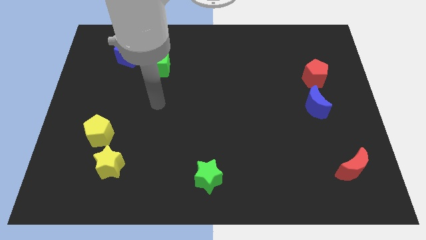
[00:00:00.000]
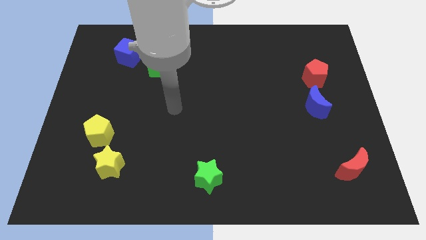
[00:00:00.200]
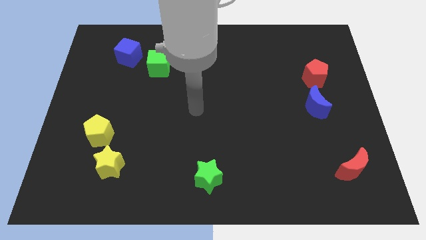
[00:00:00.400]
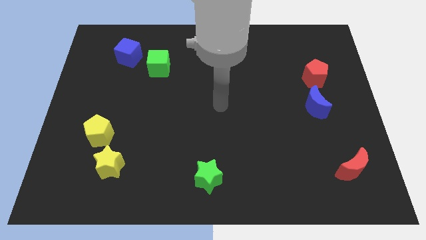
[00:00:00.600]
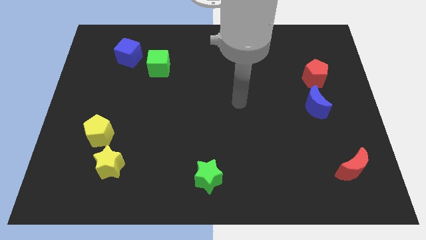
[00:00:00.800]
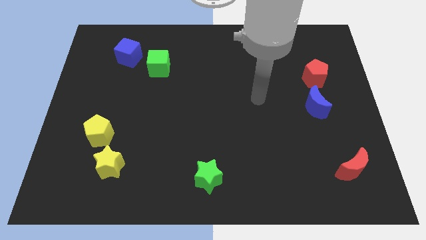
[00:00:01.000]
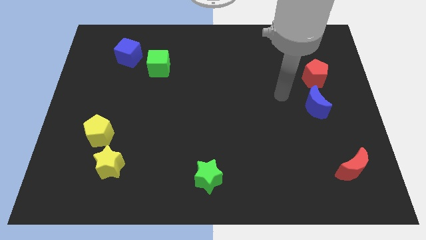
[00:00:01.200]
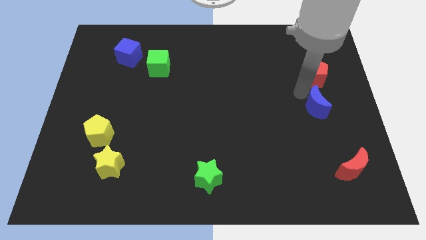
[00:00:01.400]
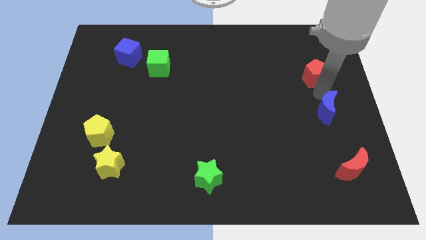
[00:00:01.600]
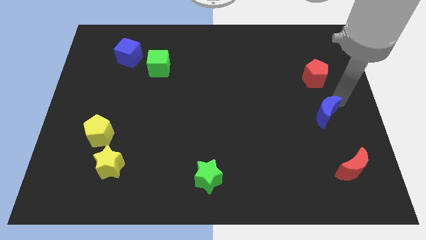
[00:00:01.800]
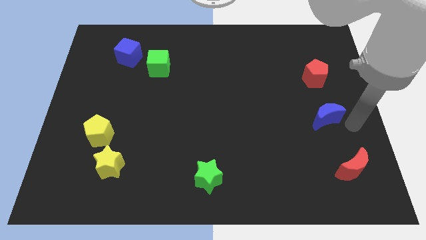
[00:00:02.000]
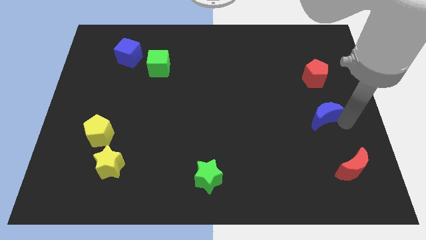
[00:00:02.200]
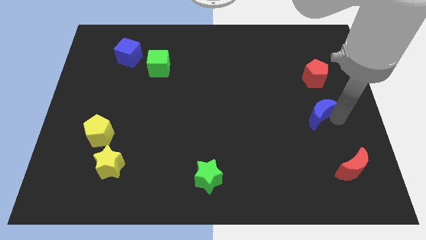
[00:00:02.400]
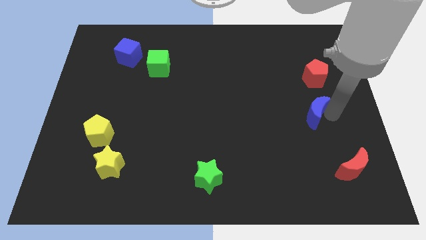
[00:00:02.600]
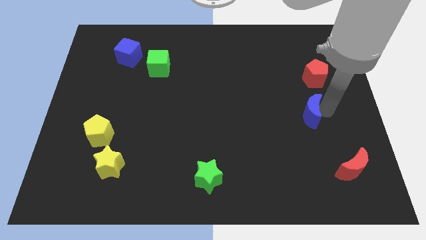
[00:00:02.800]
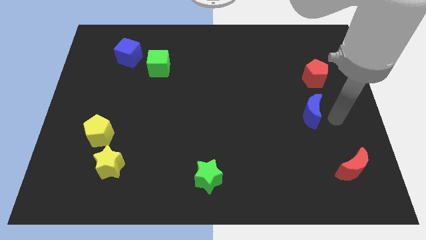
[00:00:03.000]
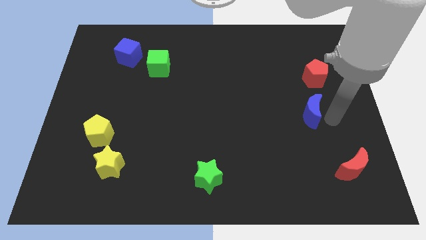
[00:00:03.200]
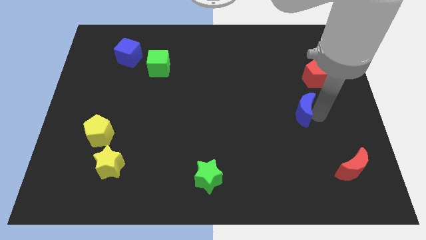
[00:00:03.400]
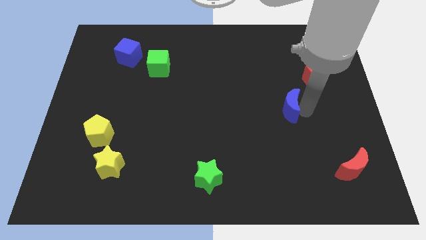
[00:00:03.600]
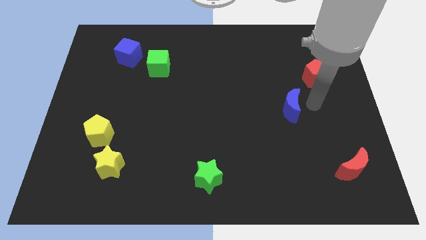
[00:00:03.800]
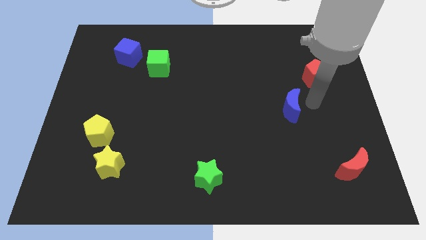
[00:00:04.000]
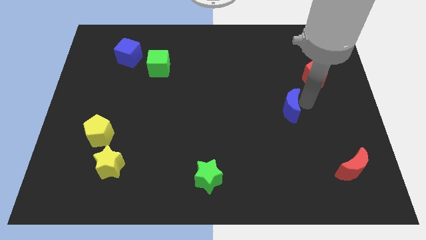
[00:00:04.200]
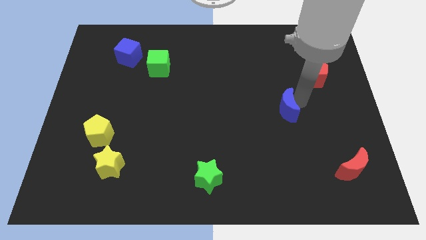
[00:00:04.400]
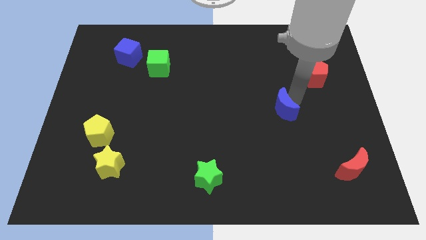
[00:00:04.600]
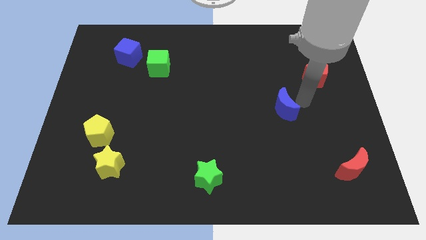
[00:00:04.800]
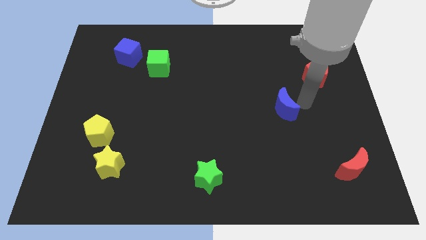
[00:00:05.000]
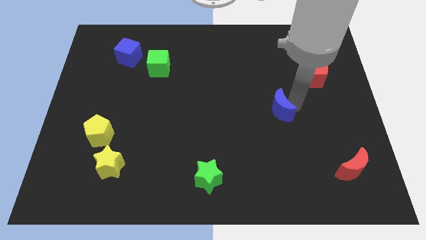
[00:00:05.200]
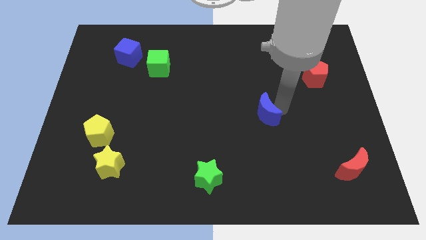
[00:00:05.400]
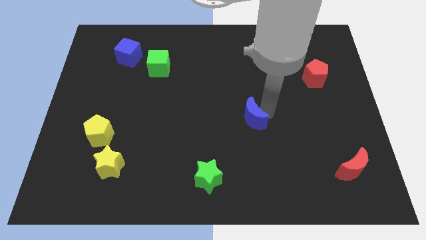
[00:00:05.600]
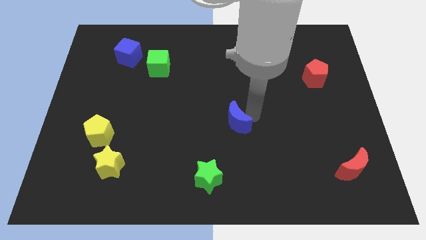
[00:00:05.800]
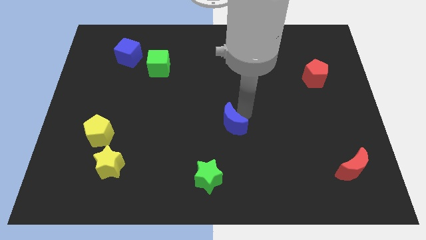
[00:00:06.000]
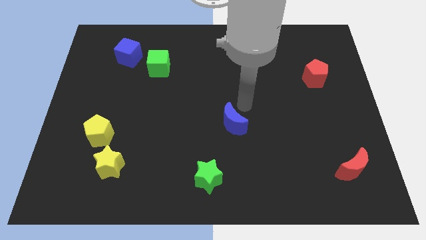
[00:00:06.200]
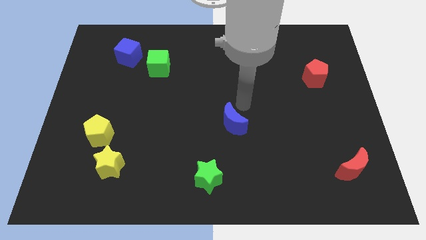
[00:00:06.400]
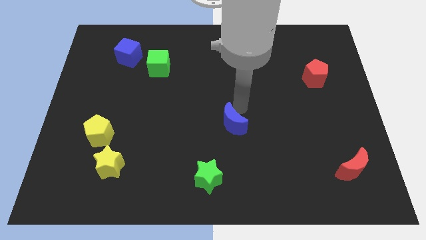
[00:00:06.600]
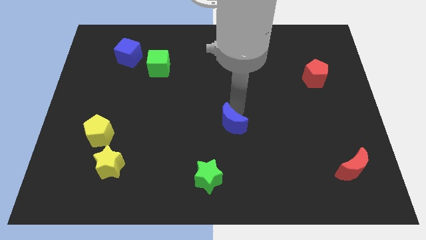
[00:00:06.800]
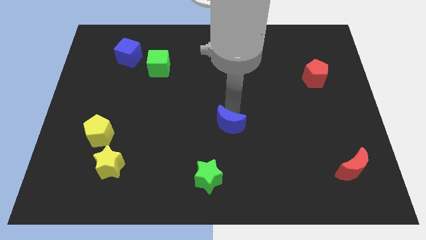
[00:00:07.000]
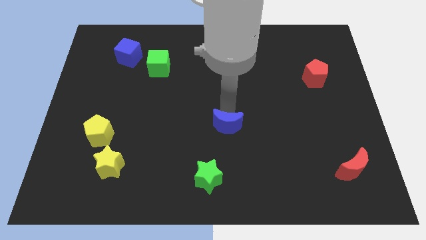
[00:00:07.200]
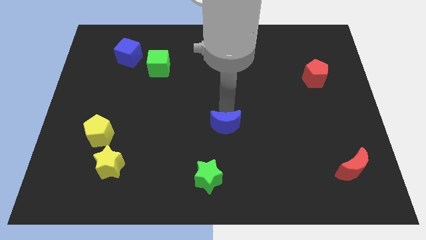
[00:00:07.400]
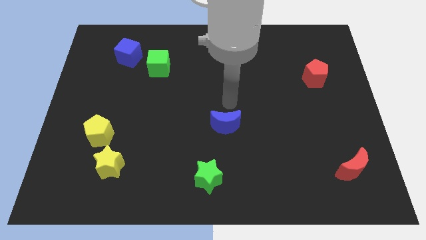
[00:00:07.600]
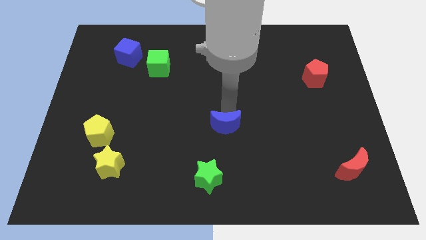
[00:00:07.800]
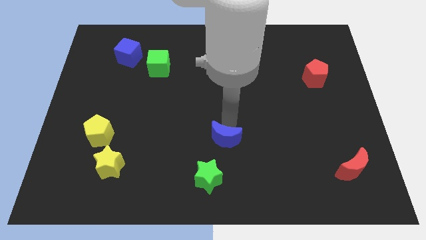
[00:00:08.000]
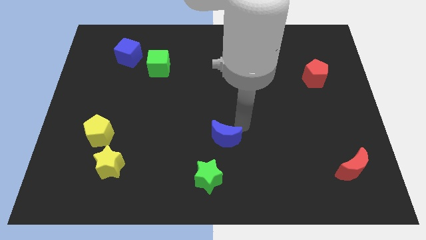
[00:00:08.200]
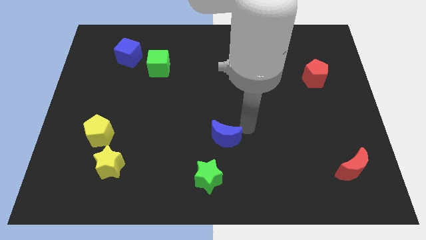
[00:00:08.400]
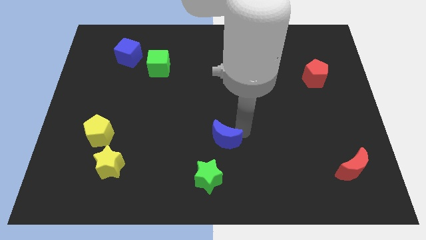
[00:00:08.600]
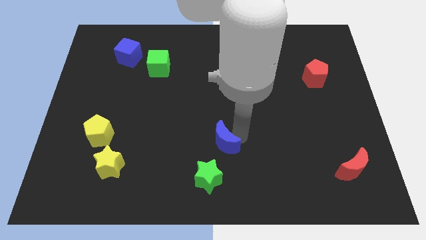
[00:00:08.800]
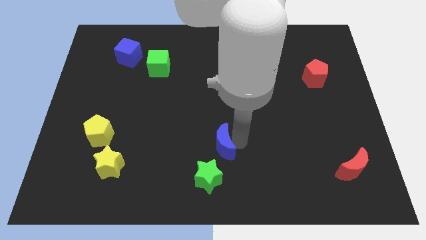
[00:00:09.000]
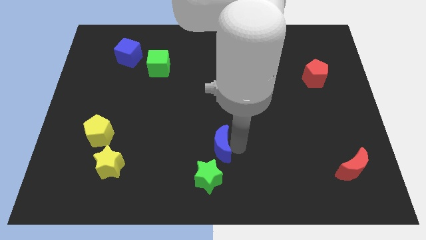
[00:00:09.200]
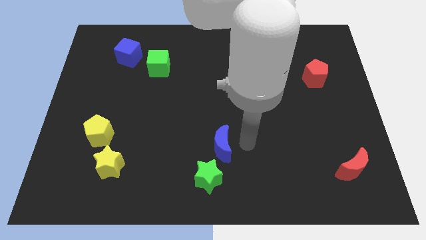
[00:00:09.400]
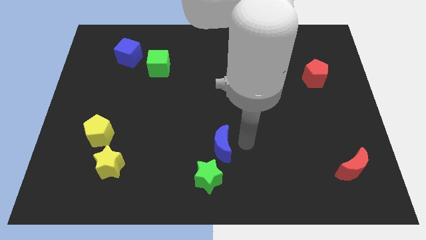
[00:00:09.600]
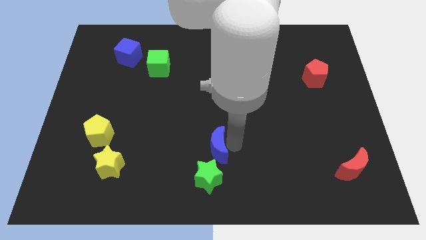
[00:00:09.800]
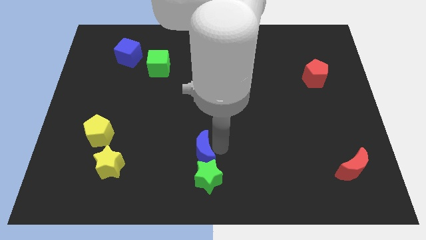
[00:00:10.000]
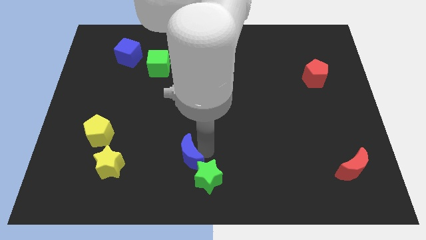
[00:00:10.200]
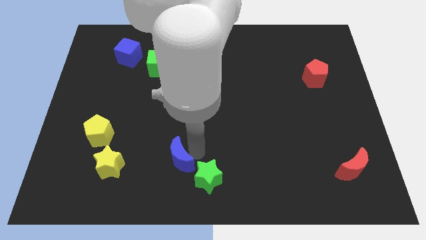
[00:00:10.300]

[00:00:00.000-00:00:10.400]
move the blue moon to the left of the green star

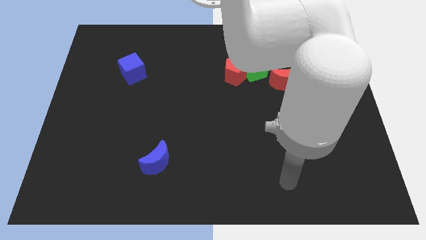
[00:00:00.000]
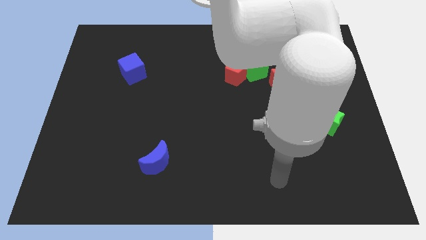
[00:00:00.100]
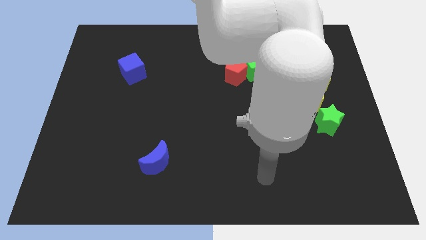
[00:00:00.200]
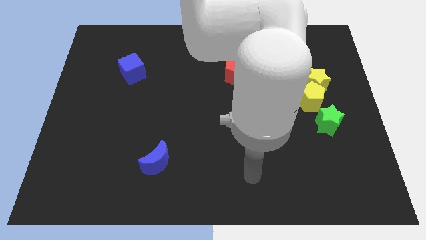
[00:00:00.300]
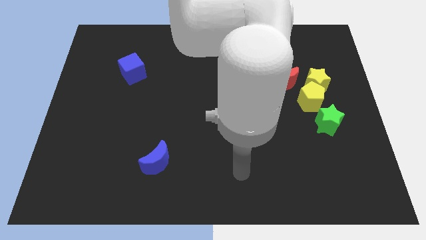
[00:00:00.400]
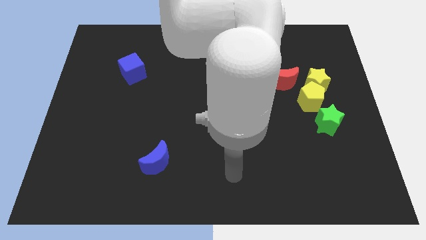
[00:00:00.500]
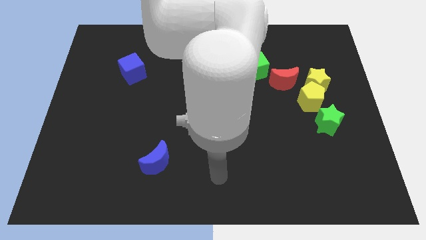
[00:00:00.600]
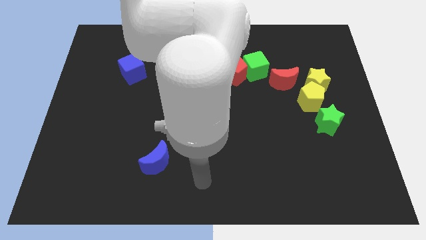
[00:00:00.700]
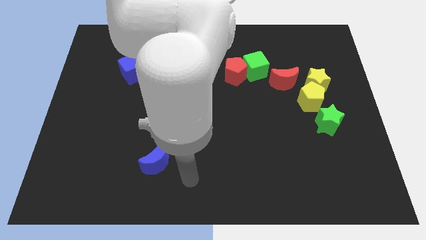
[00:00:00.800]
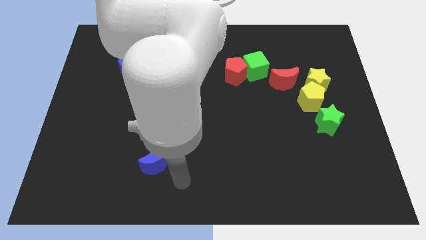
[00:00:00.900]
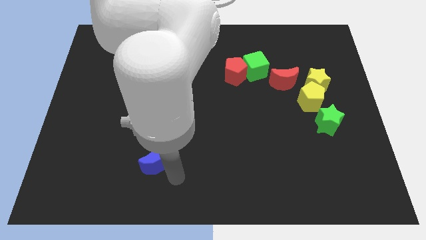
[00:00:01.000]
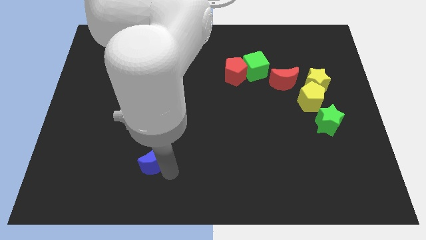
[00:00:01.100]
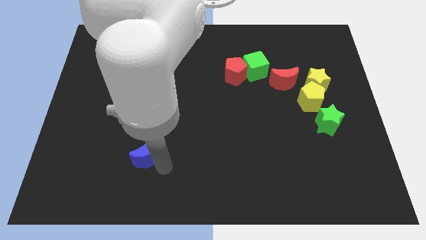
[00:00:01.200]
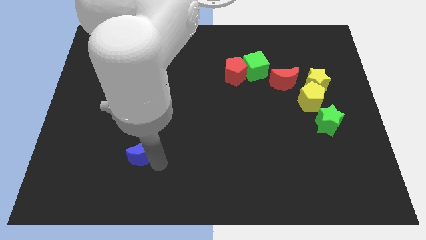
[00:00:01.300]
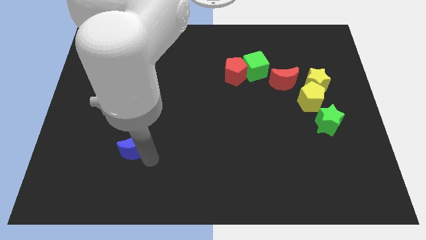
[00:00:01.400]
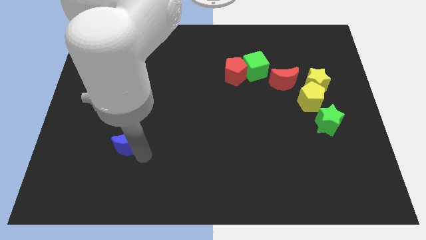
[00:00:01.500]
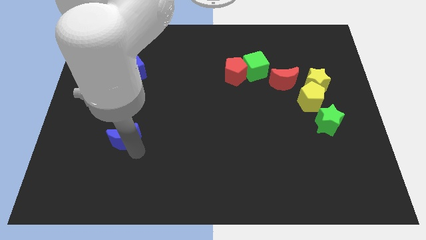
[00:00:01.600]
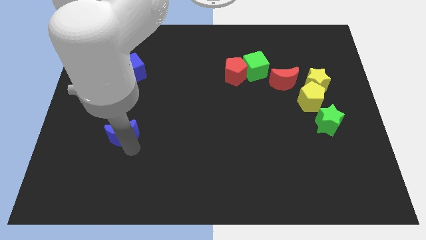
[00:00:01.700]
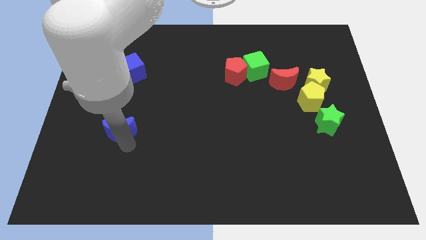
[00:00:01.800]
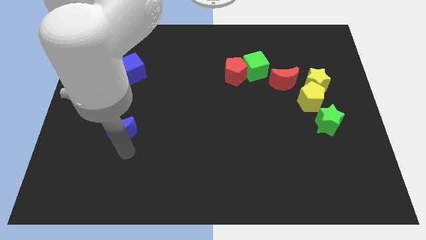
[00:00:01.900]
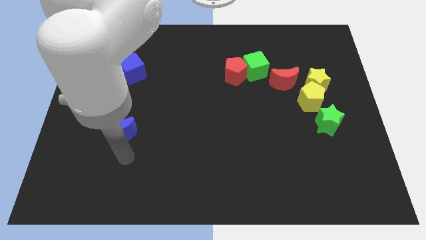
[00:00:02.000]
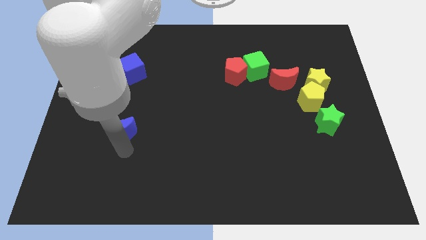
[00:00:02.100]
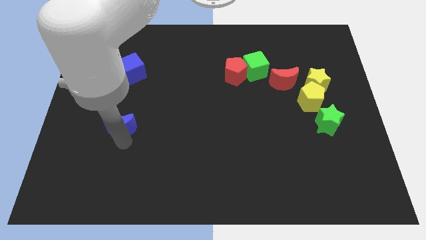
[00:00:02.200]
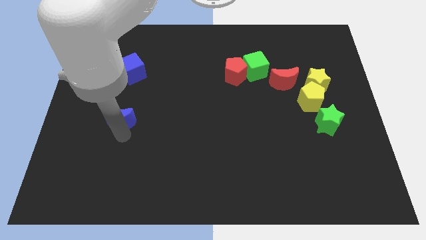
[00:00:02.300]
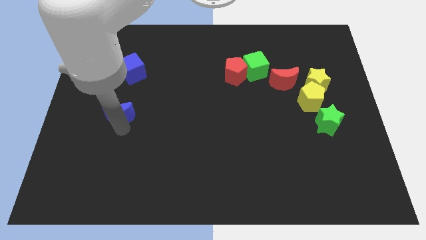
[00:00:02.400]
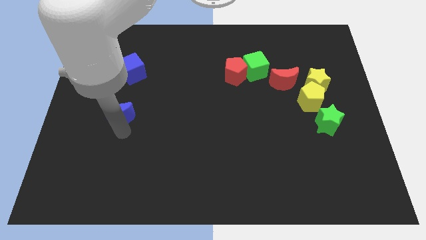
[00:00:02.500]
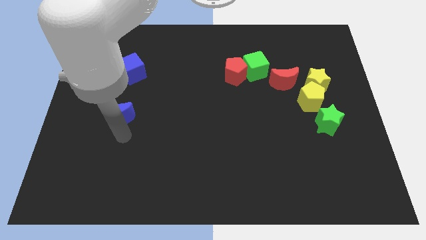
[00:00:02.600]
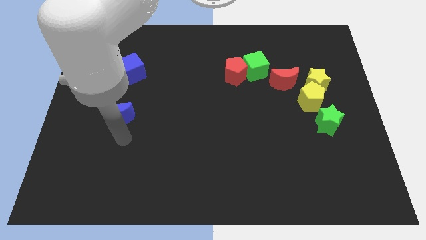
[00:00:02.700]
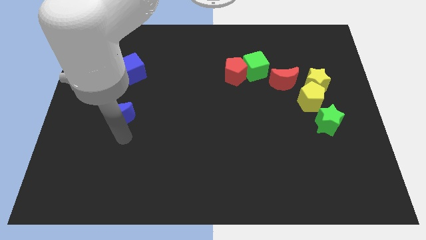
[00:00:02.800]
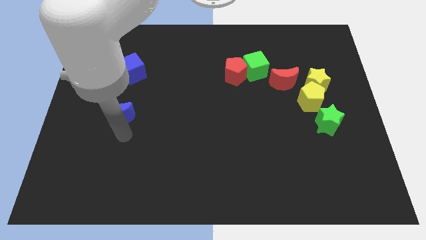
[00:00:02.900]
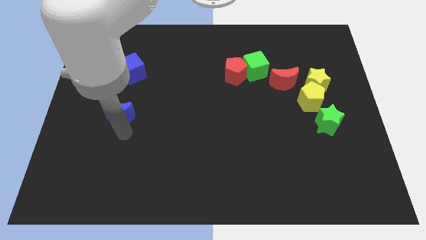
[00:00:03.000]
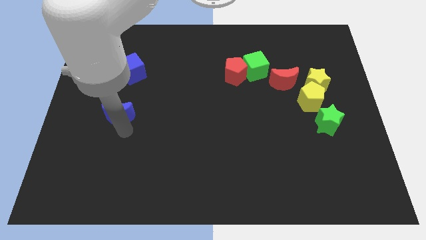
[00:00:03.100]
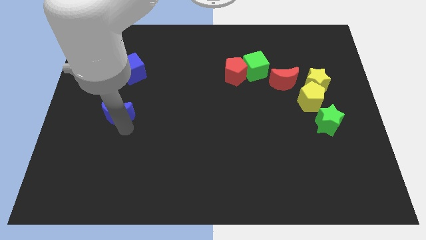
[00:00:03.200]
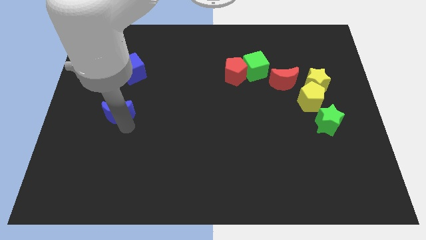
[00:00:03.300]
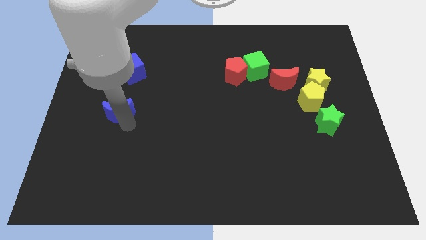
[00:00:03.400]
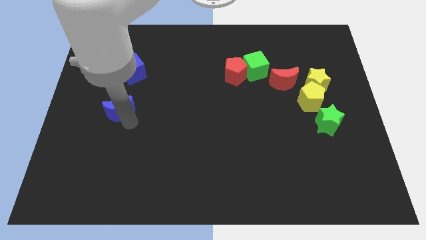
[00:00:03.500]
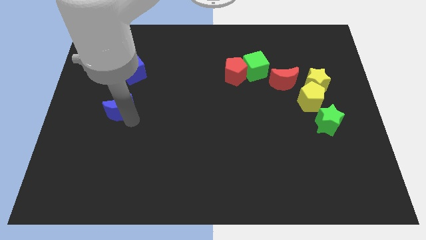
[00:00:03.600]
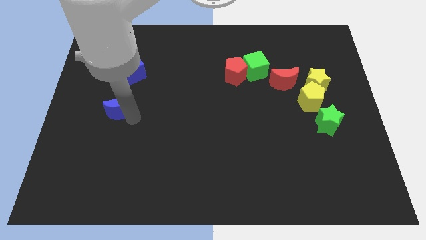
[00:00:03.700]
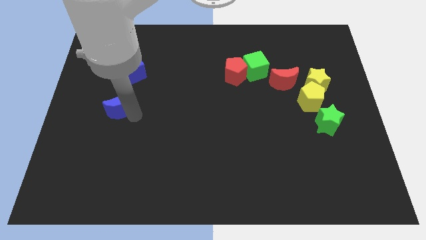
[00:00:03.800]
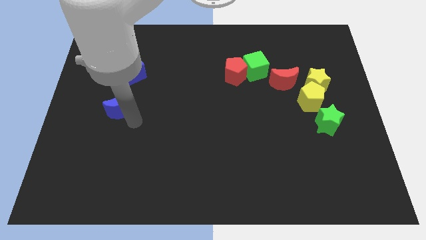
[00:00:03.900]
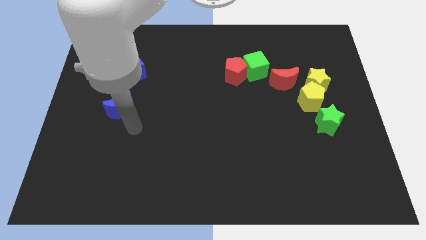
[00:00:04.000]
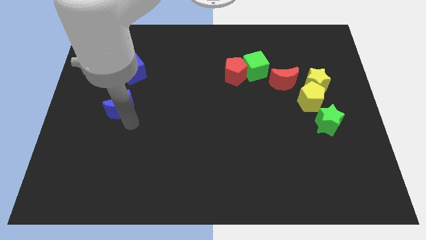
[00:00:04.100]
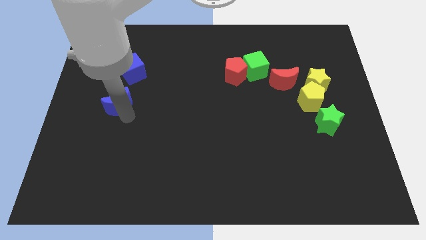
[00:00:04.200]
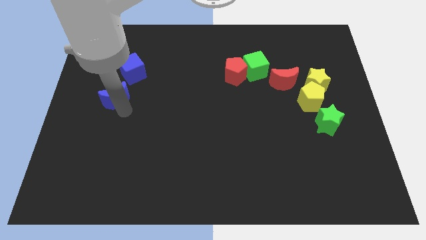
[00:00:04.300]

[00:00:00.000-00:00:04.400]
put the blue moon diagonally down and to the left of the blue cube
